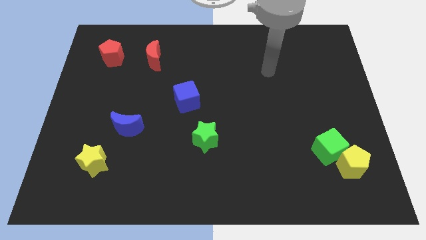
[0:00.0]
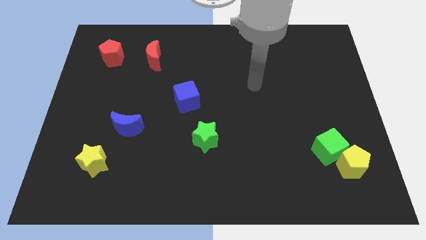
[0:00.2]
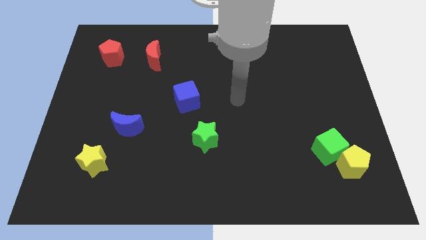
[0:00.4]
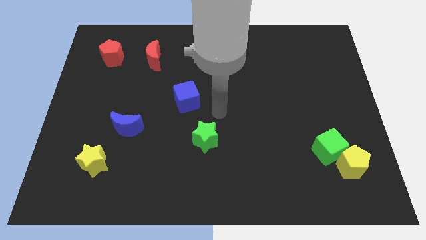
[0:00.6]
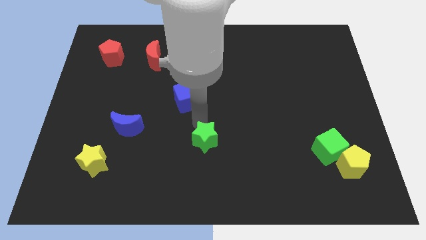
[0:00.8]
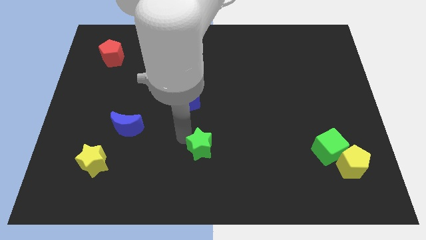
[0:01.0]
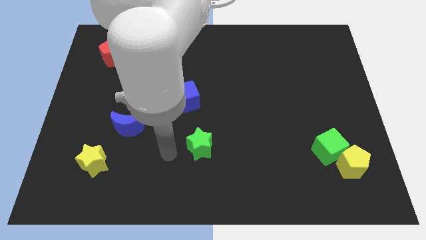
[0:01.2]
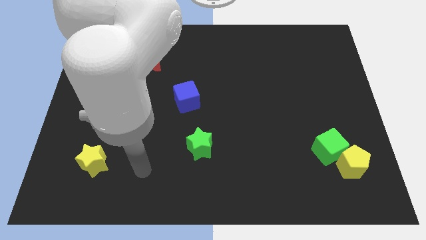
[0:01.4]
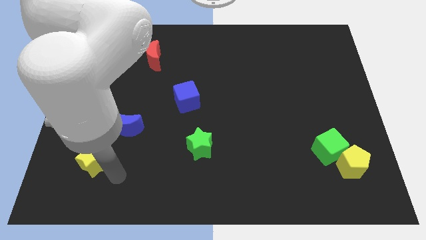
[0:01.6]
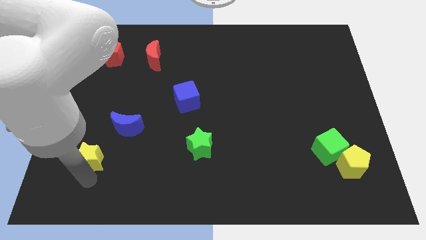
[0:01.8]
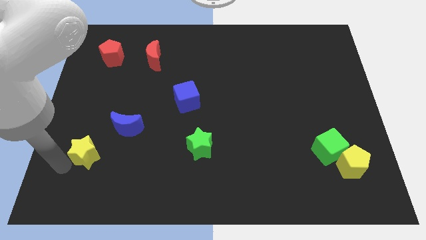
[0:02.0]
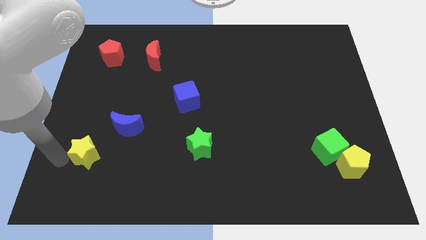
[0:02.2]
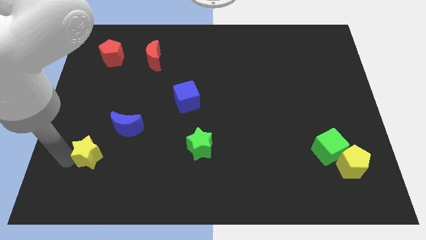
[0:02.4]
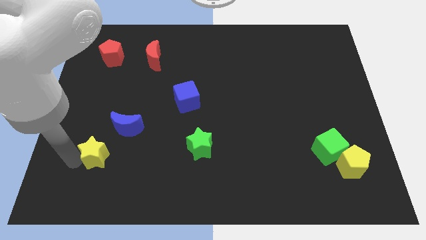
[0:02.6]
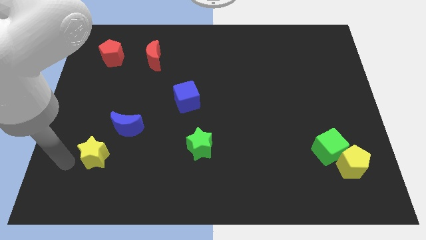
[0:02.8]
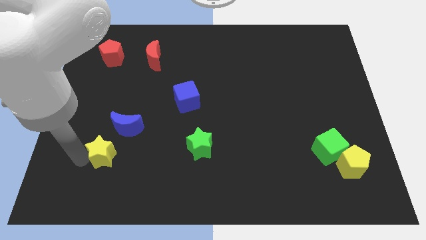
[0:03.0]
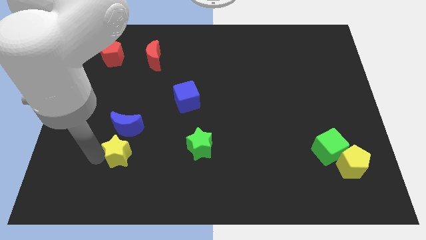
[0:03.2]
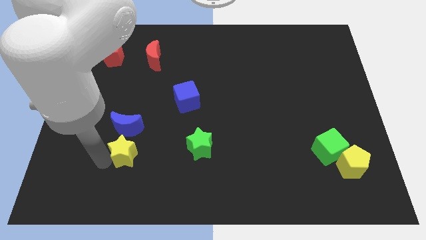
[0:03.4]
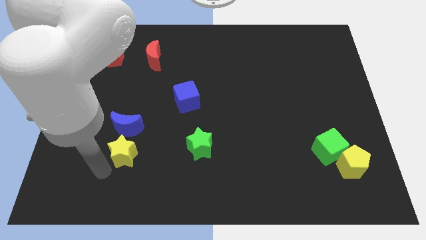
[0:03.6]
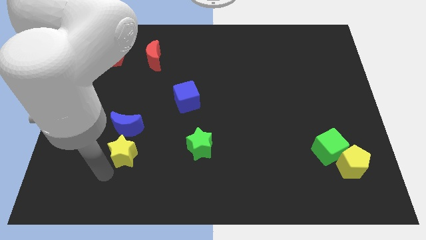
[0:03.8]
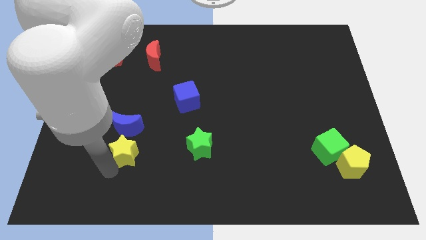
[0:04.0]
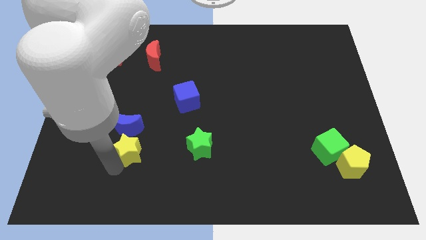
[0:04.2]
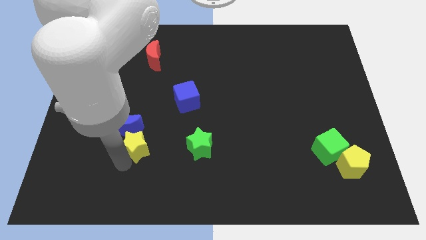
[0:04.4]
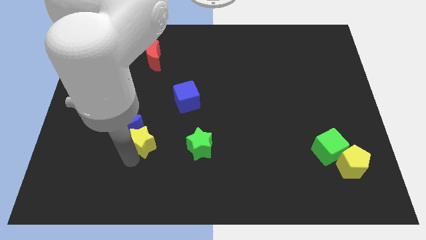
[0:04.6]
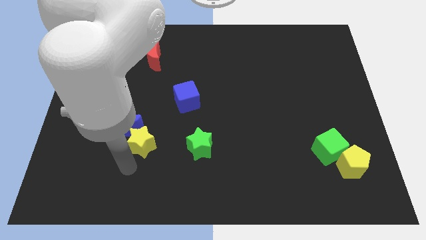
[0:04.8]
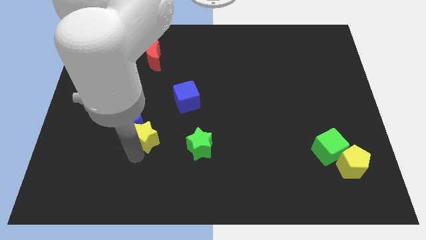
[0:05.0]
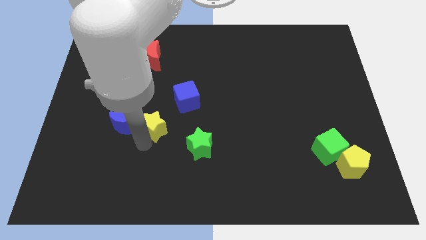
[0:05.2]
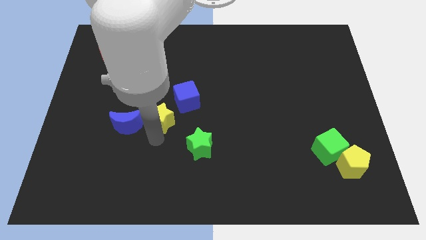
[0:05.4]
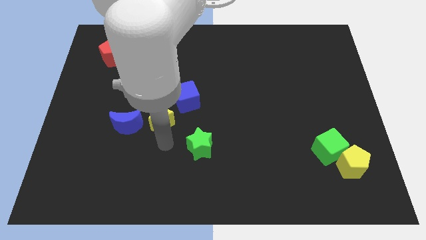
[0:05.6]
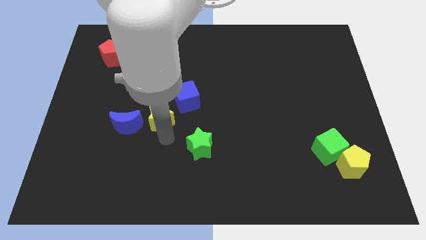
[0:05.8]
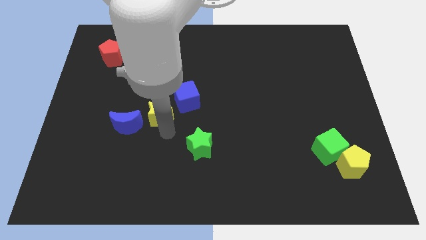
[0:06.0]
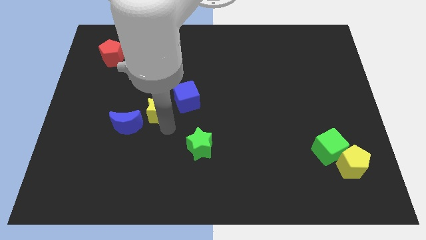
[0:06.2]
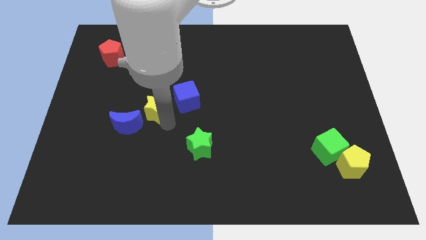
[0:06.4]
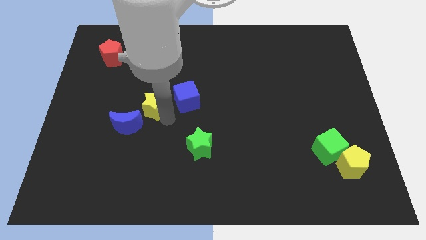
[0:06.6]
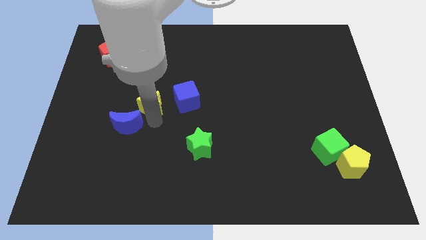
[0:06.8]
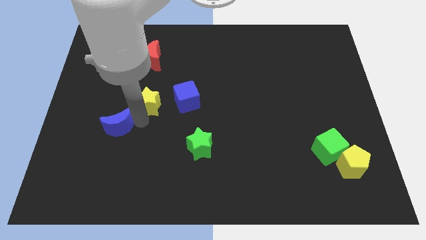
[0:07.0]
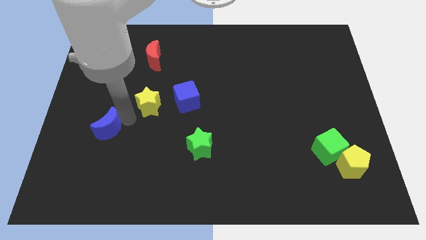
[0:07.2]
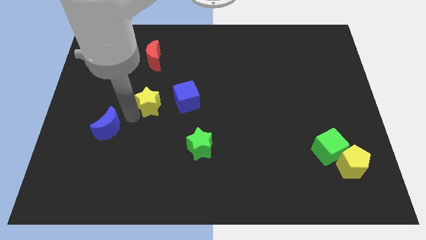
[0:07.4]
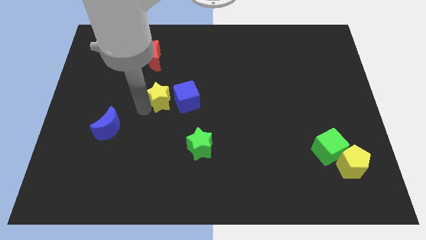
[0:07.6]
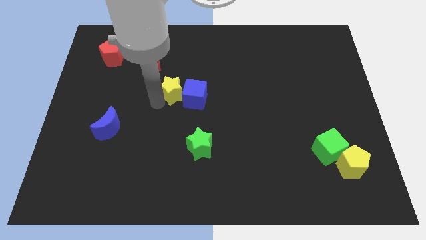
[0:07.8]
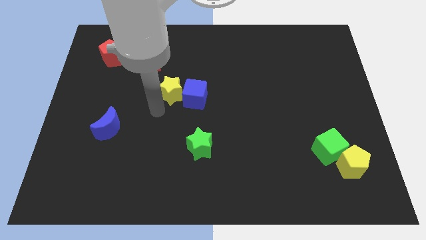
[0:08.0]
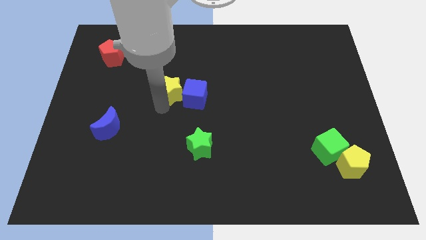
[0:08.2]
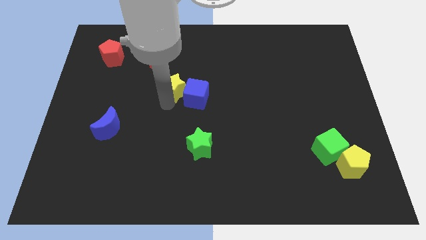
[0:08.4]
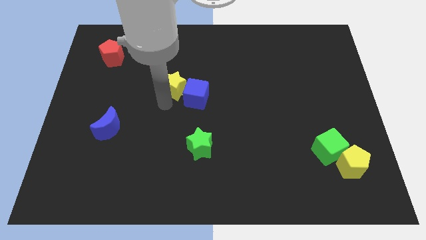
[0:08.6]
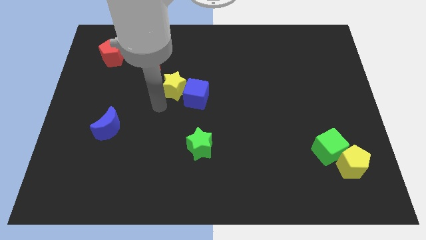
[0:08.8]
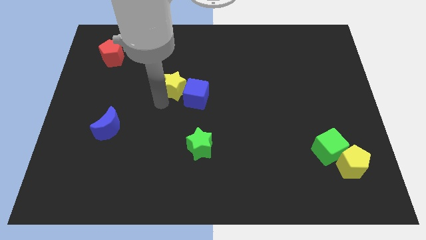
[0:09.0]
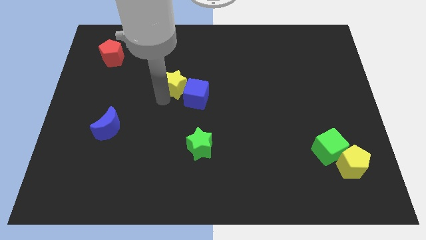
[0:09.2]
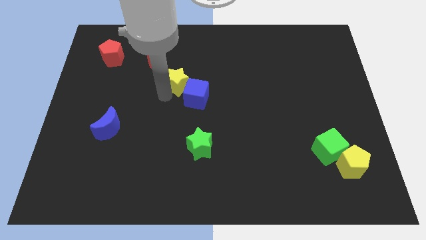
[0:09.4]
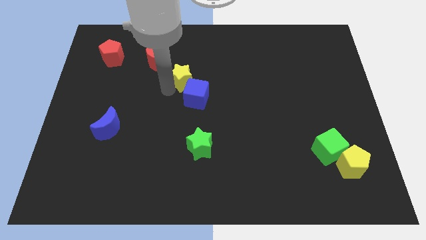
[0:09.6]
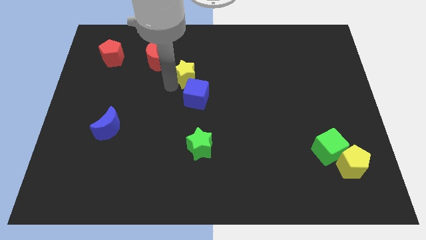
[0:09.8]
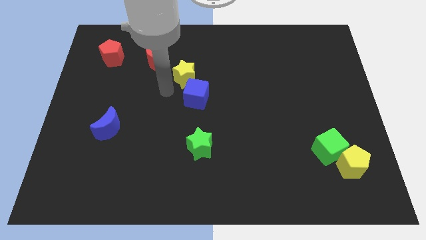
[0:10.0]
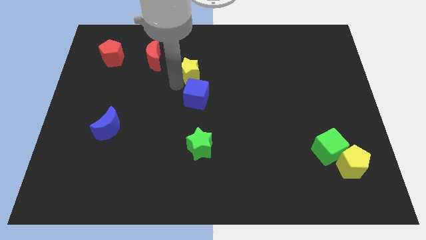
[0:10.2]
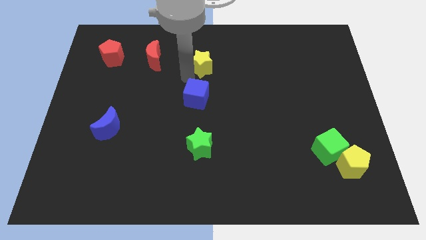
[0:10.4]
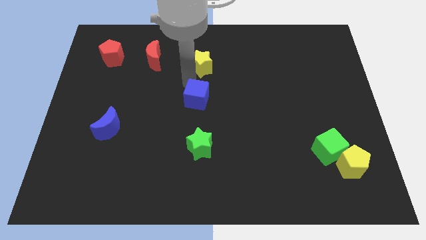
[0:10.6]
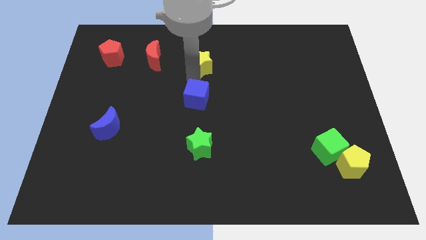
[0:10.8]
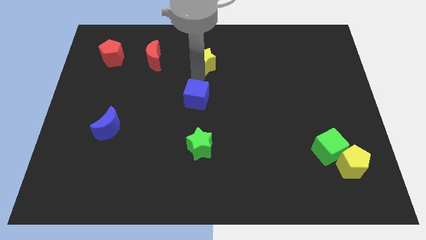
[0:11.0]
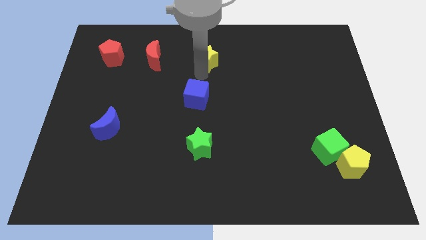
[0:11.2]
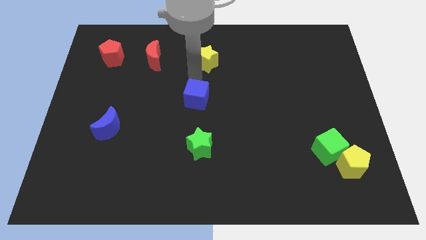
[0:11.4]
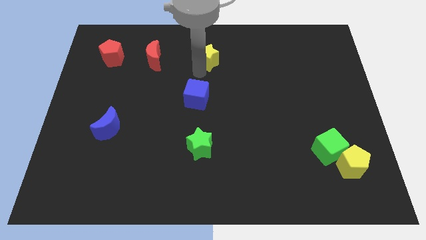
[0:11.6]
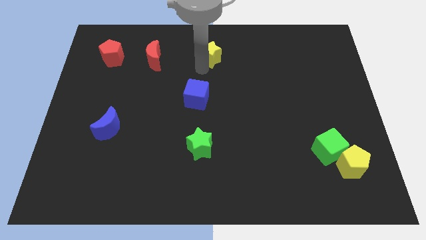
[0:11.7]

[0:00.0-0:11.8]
push the yellow star to the top side
